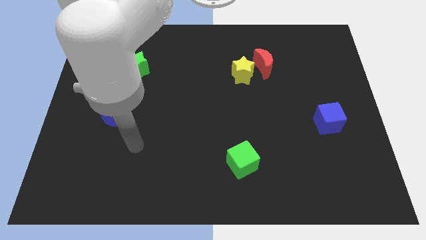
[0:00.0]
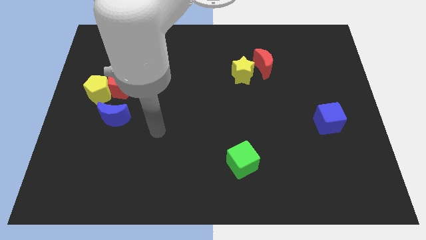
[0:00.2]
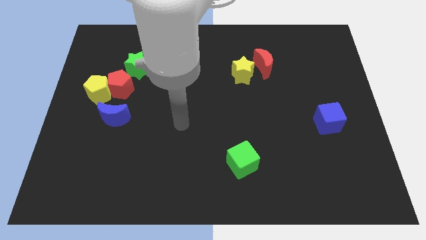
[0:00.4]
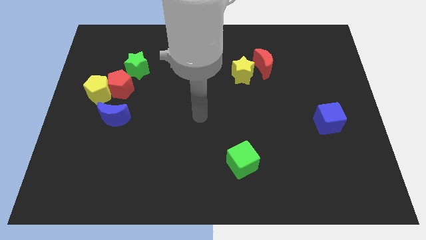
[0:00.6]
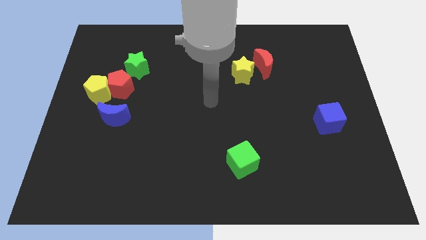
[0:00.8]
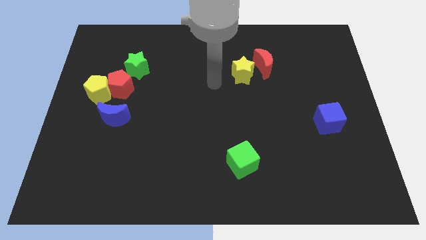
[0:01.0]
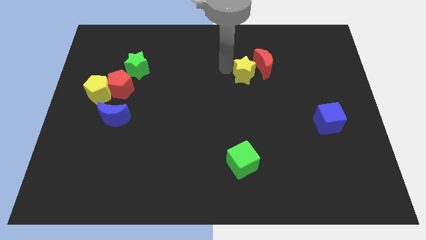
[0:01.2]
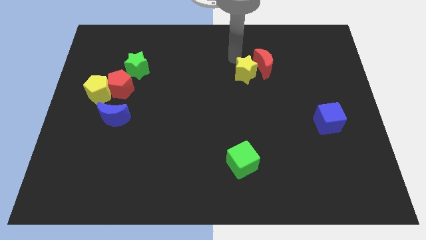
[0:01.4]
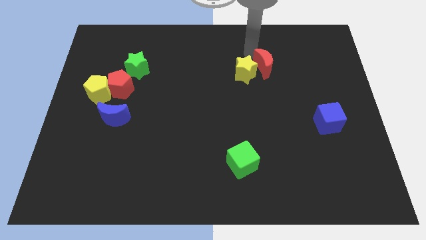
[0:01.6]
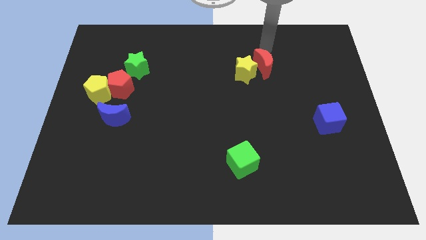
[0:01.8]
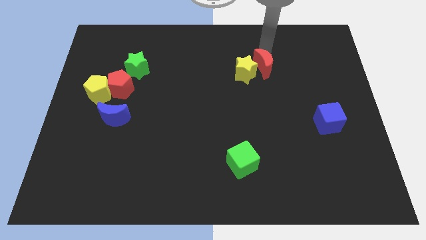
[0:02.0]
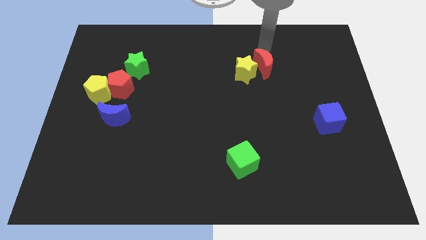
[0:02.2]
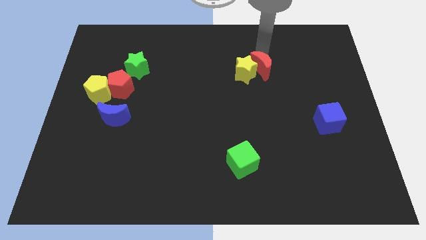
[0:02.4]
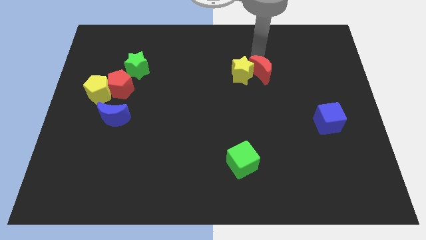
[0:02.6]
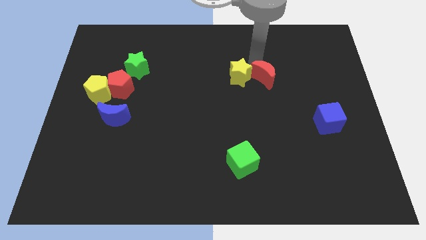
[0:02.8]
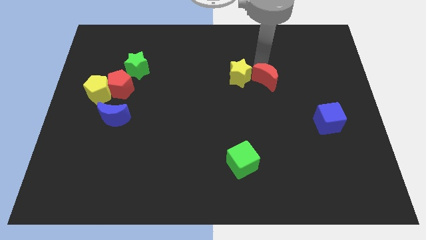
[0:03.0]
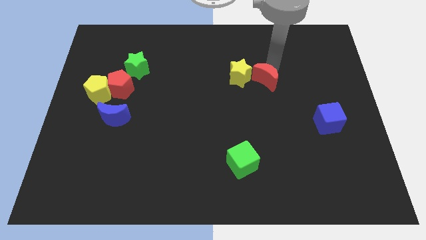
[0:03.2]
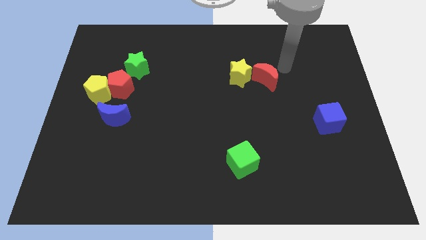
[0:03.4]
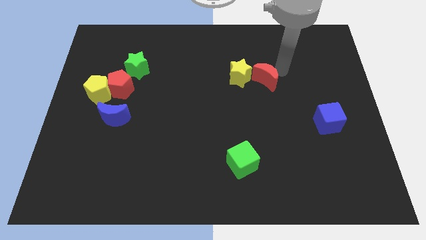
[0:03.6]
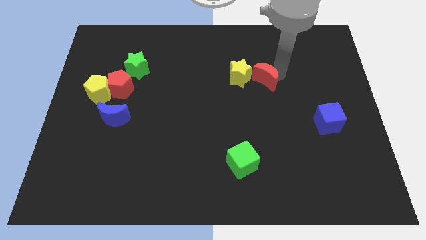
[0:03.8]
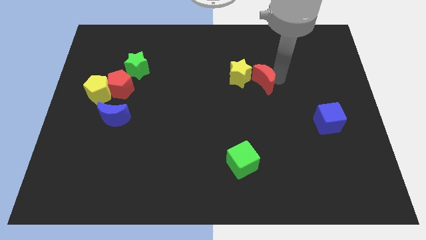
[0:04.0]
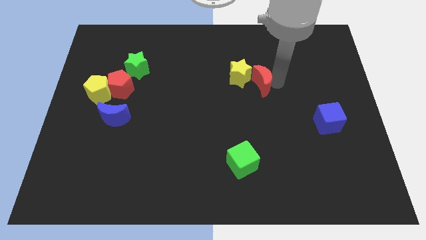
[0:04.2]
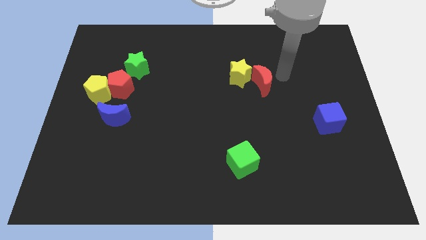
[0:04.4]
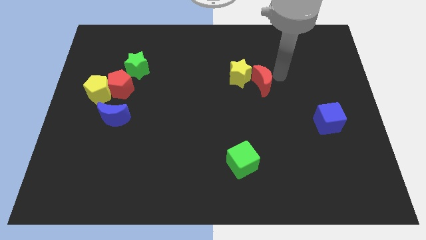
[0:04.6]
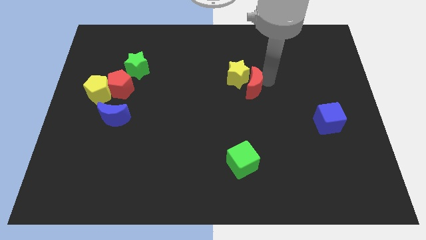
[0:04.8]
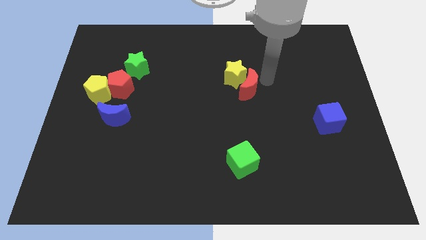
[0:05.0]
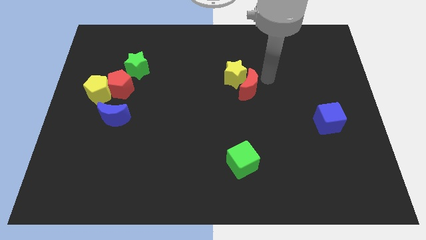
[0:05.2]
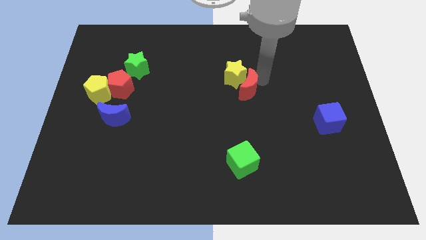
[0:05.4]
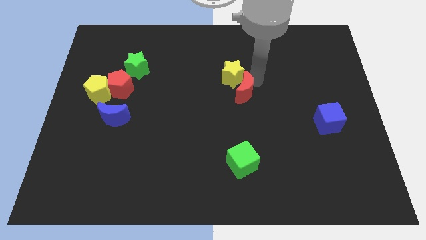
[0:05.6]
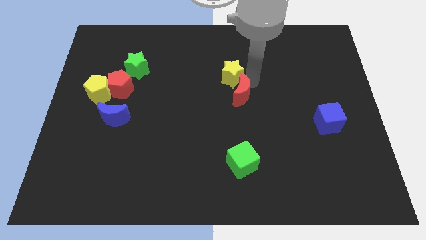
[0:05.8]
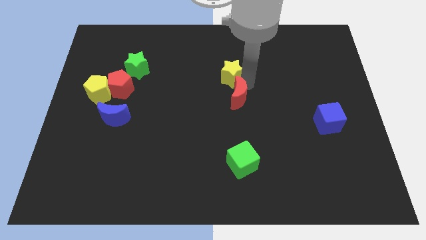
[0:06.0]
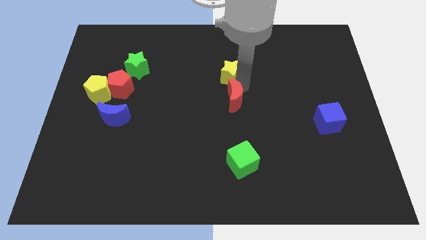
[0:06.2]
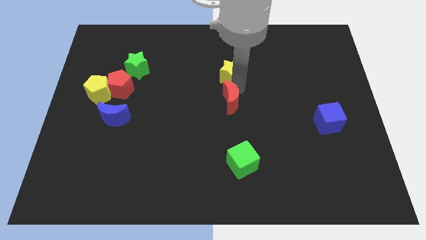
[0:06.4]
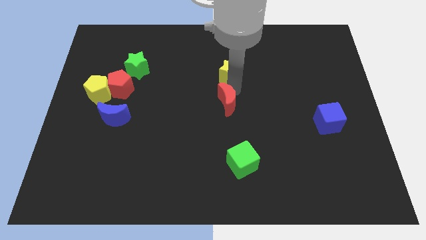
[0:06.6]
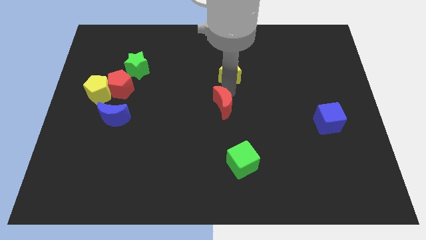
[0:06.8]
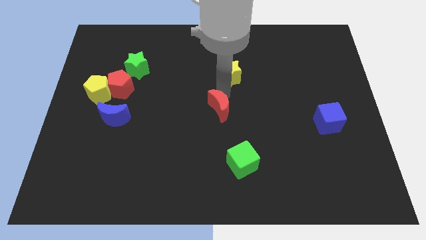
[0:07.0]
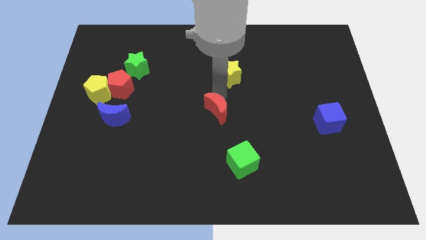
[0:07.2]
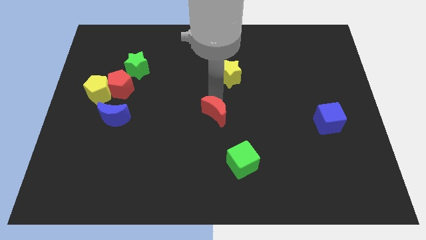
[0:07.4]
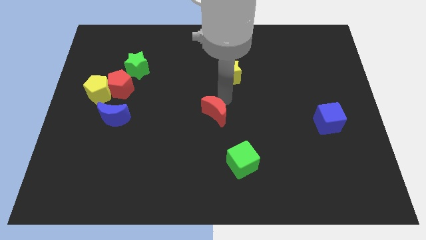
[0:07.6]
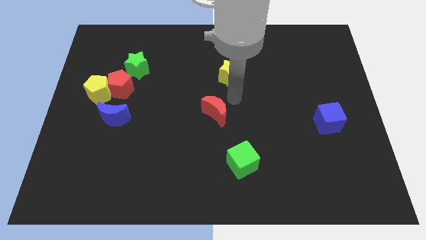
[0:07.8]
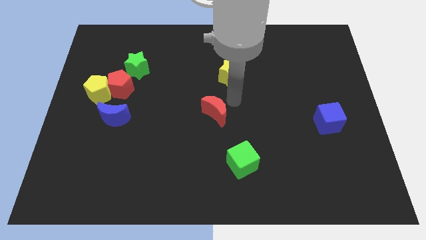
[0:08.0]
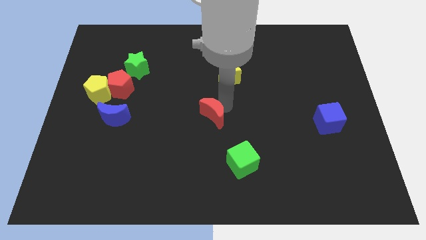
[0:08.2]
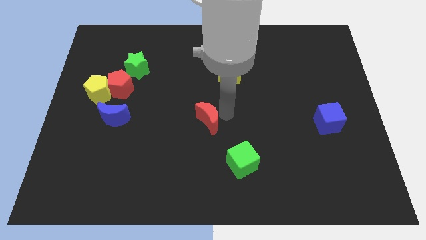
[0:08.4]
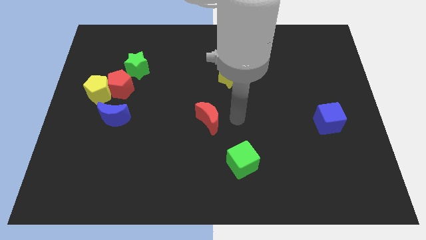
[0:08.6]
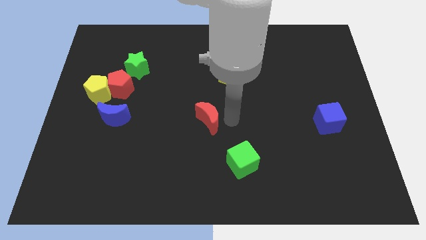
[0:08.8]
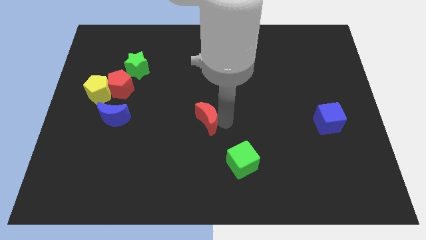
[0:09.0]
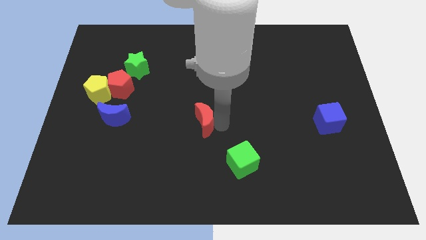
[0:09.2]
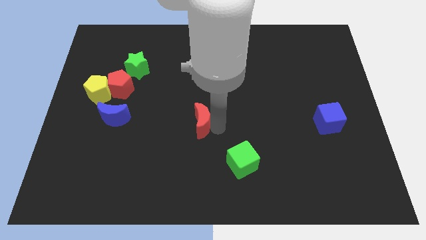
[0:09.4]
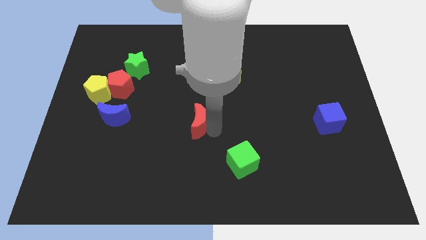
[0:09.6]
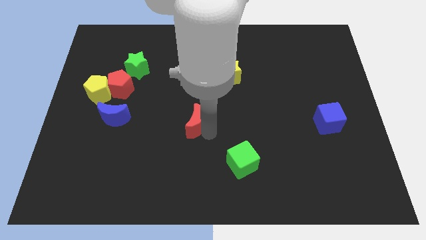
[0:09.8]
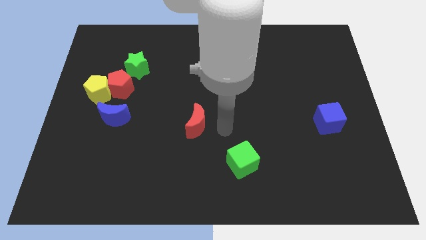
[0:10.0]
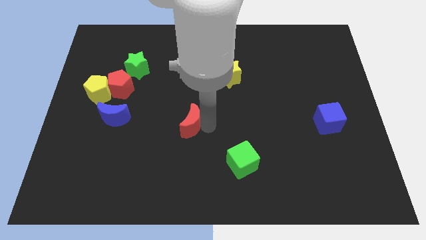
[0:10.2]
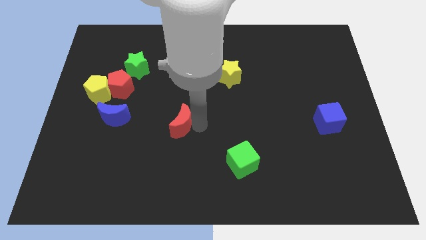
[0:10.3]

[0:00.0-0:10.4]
push the red moon to the right side of the blue moon

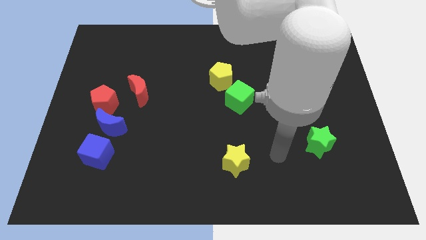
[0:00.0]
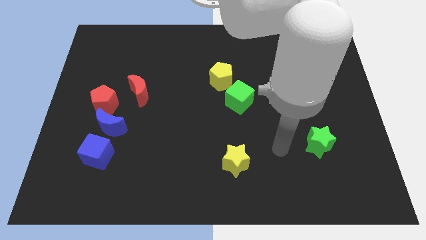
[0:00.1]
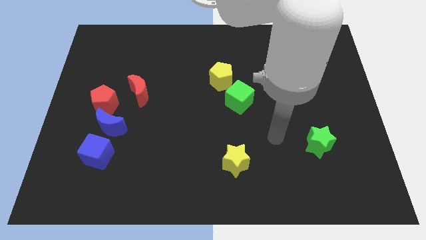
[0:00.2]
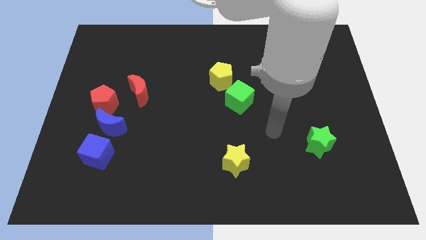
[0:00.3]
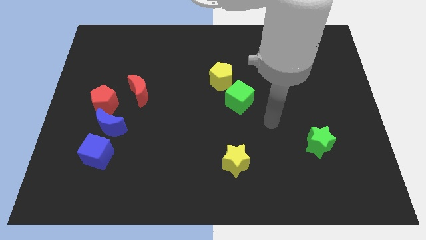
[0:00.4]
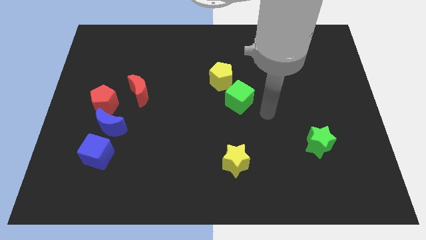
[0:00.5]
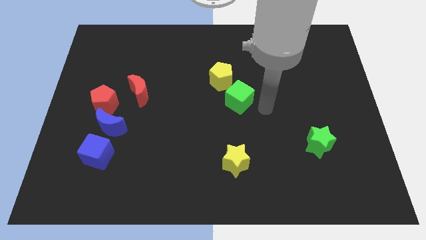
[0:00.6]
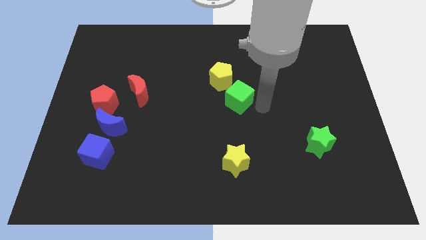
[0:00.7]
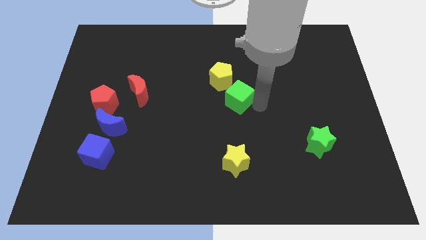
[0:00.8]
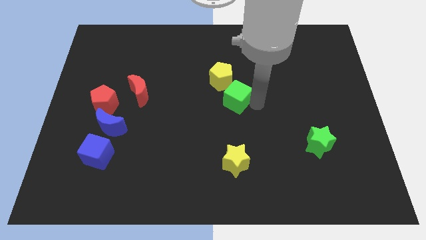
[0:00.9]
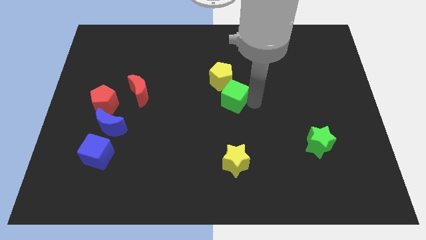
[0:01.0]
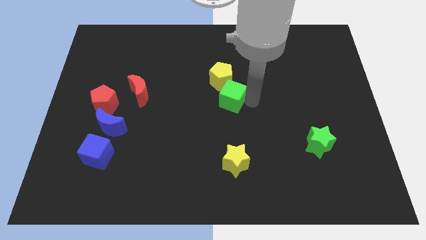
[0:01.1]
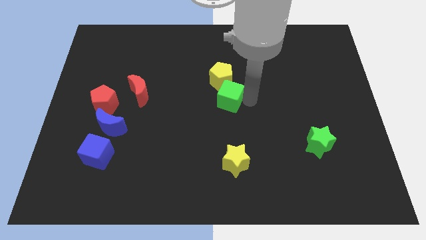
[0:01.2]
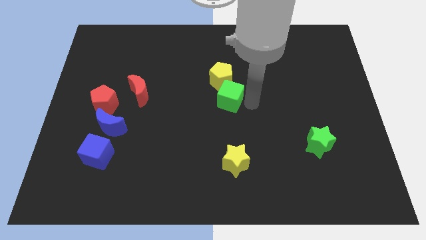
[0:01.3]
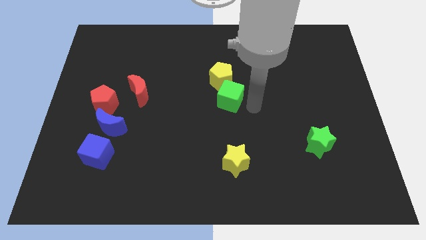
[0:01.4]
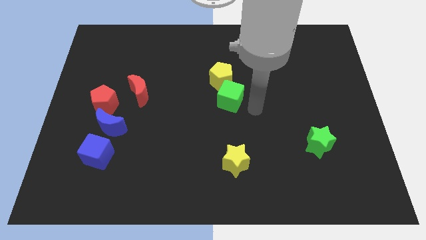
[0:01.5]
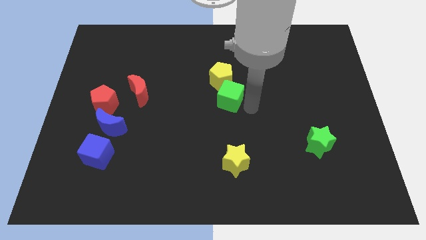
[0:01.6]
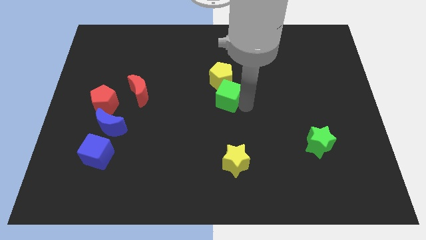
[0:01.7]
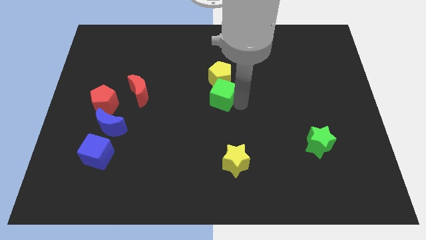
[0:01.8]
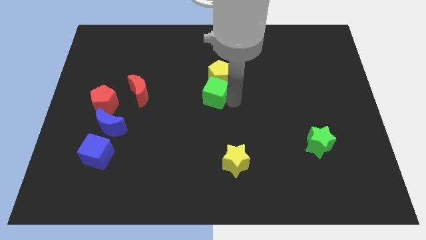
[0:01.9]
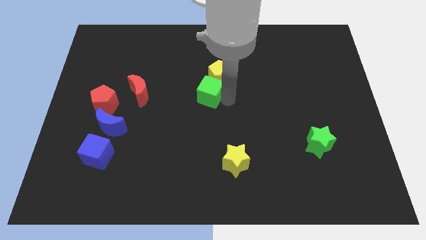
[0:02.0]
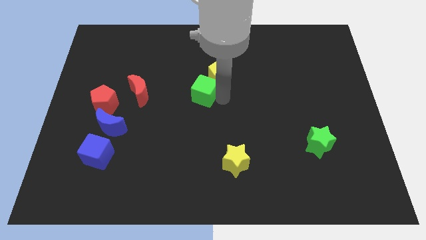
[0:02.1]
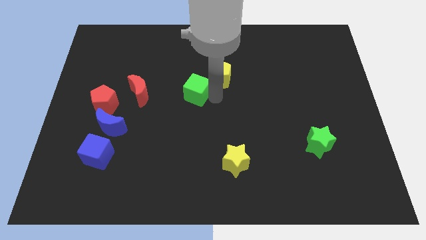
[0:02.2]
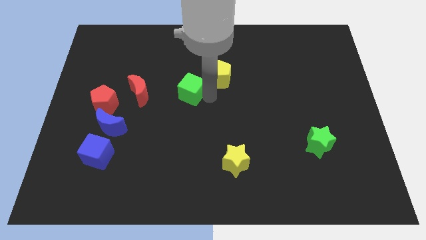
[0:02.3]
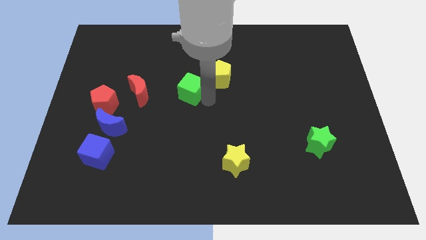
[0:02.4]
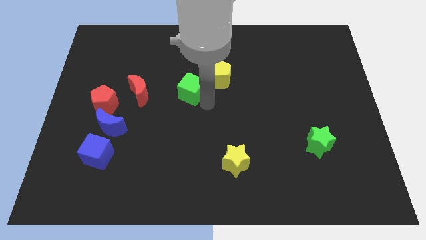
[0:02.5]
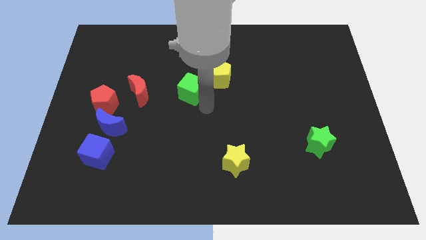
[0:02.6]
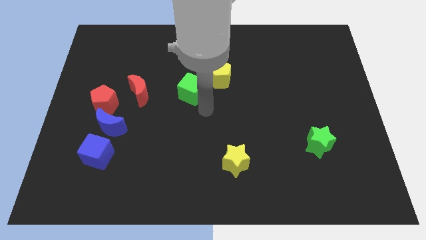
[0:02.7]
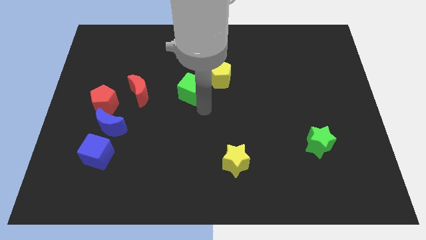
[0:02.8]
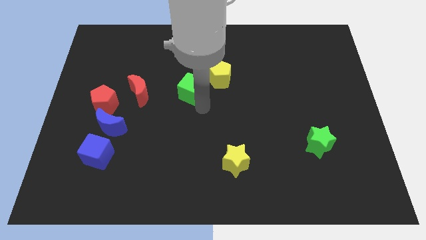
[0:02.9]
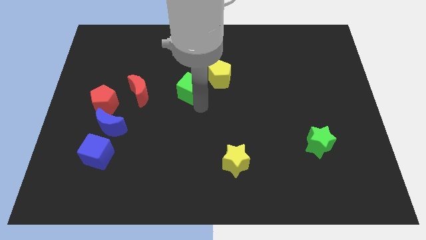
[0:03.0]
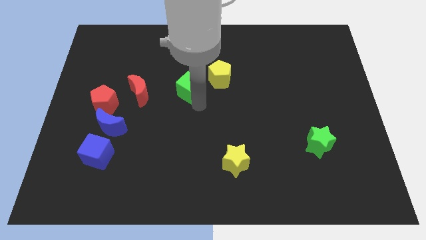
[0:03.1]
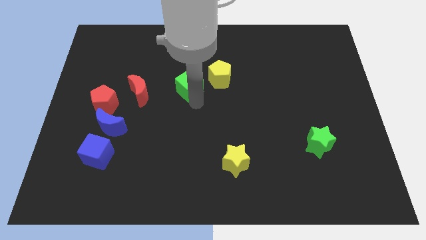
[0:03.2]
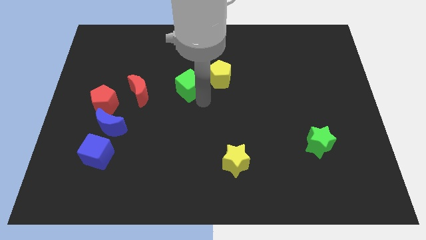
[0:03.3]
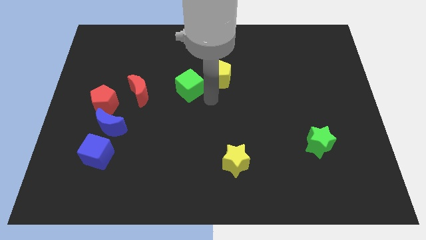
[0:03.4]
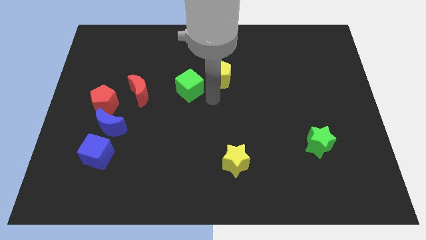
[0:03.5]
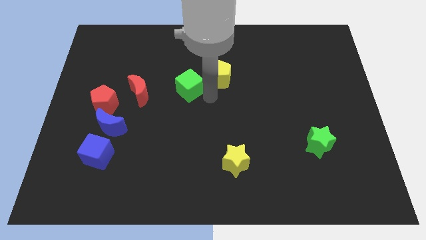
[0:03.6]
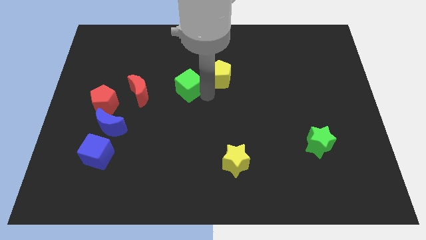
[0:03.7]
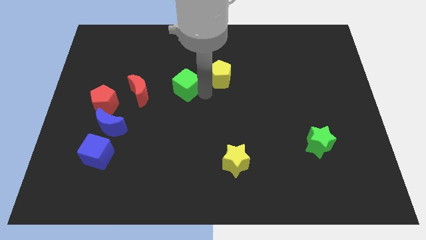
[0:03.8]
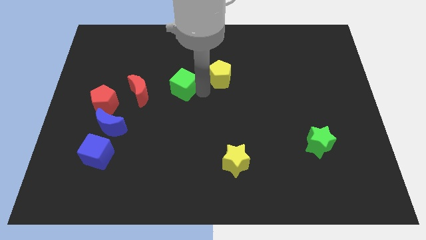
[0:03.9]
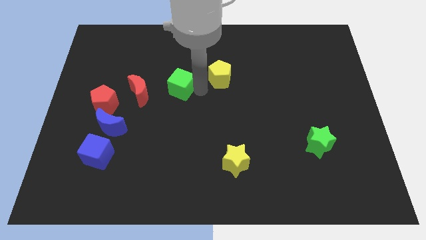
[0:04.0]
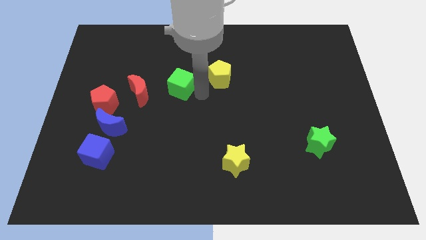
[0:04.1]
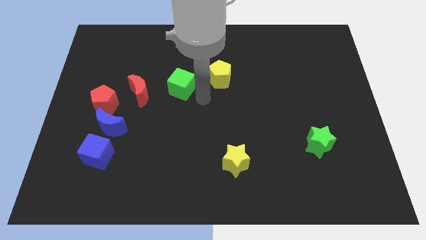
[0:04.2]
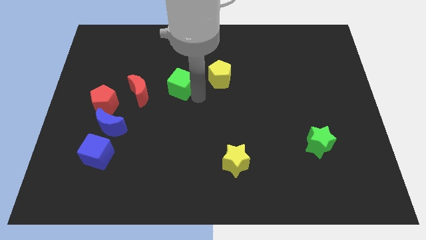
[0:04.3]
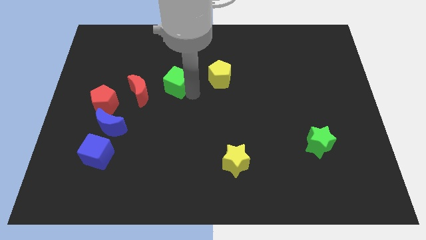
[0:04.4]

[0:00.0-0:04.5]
move the green cube to the top right side of the red moon
